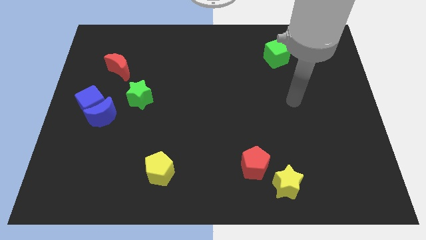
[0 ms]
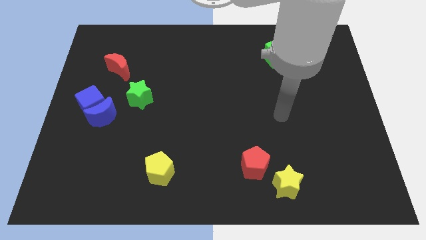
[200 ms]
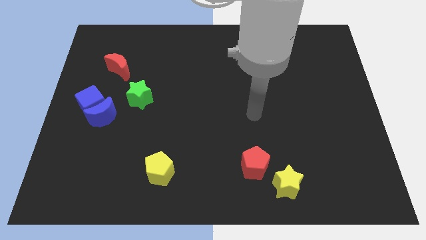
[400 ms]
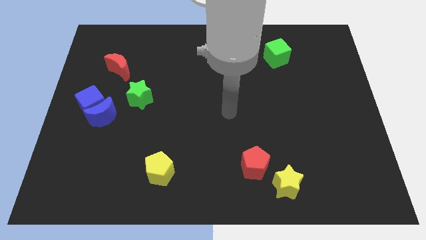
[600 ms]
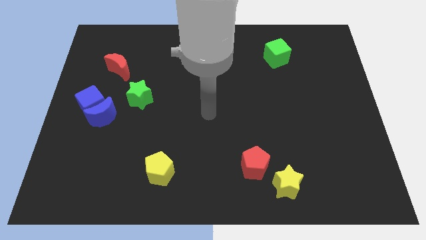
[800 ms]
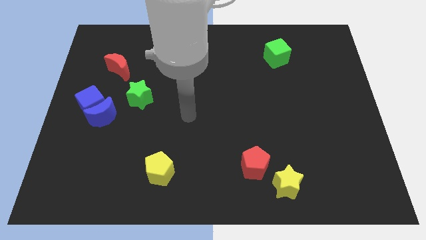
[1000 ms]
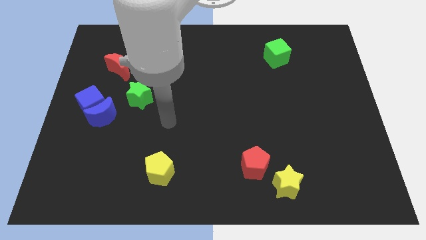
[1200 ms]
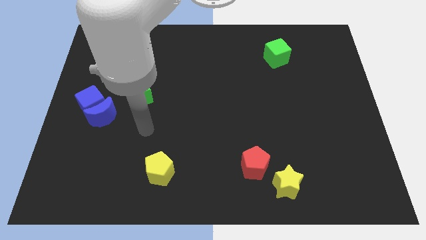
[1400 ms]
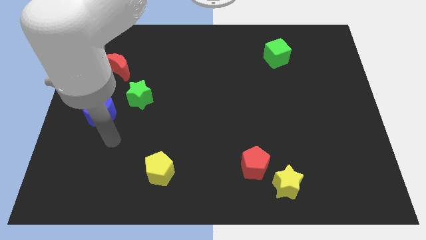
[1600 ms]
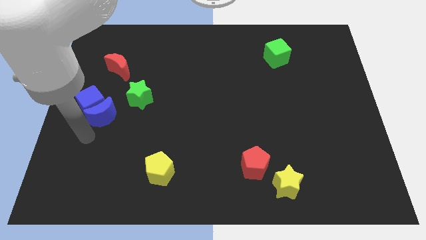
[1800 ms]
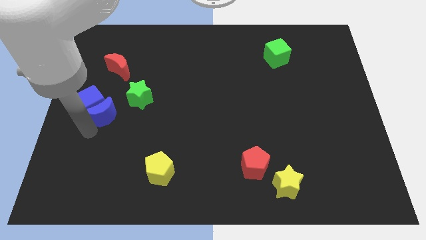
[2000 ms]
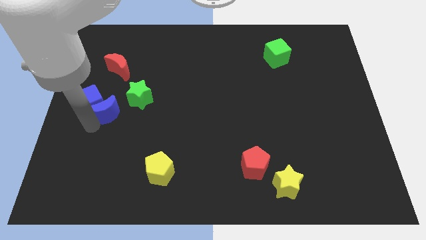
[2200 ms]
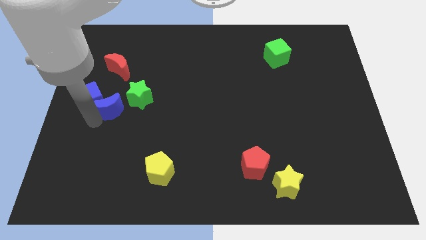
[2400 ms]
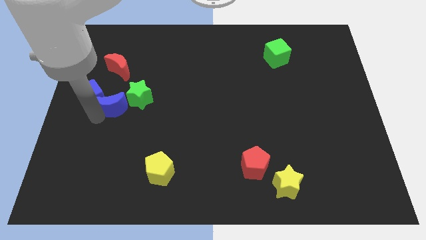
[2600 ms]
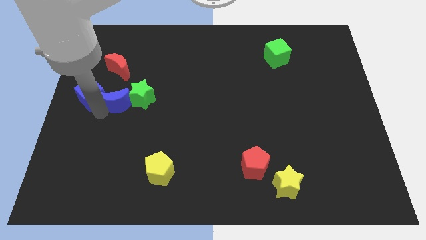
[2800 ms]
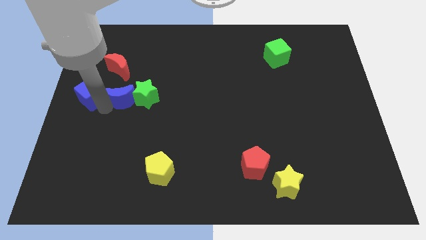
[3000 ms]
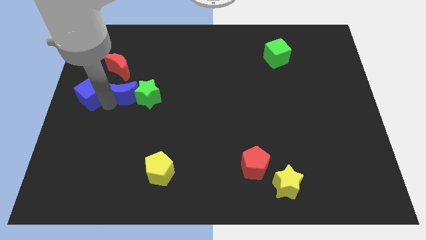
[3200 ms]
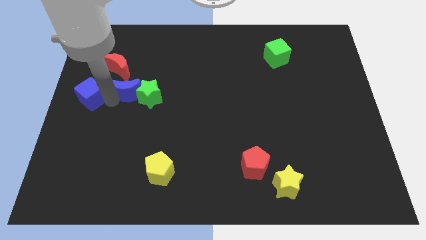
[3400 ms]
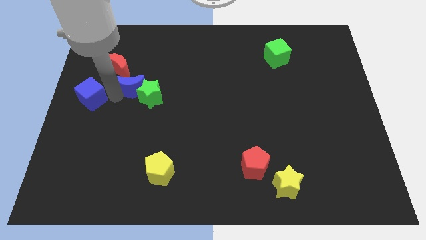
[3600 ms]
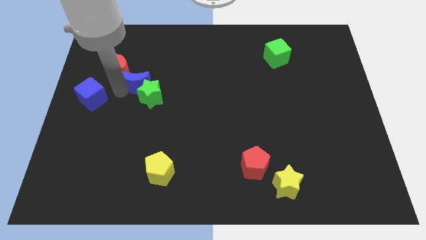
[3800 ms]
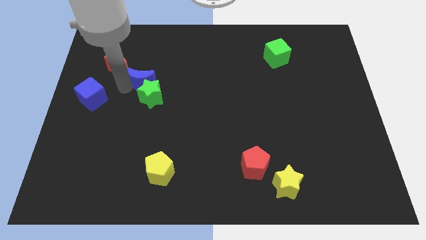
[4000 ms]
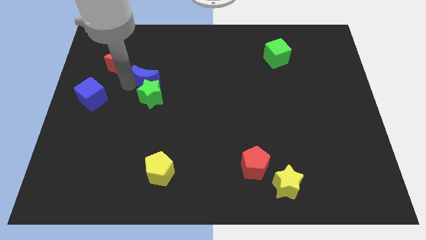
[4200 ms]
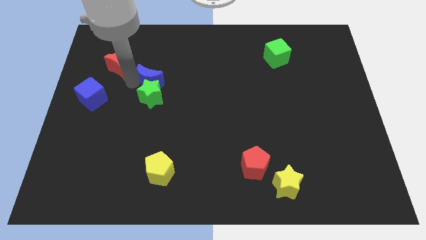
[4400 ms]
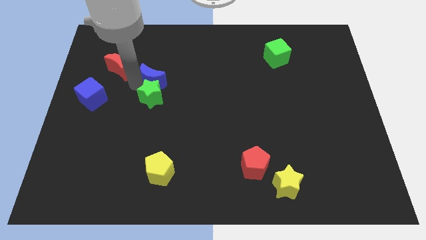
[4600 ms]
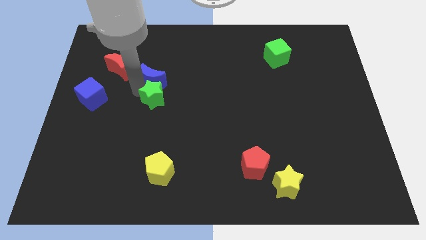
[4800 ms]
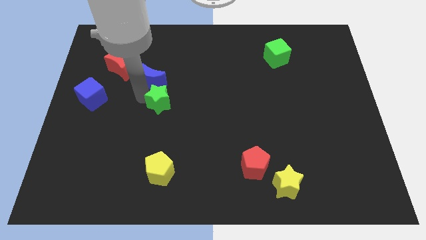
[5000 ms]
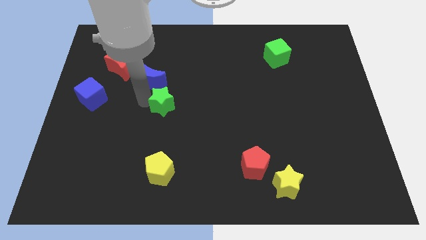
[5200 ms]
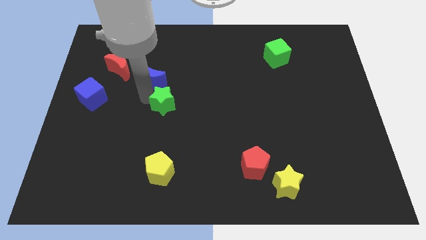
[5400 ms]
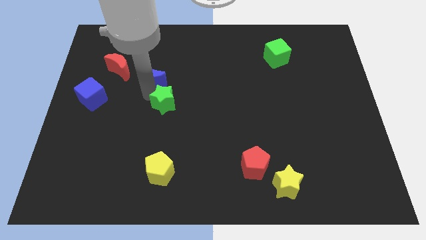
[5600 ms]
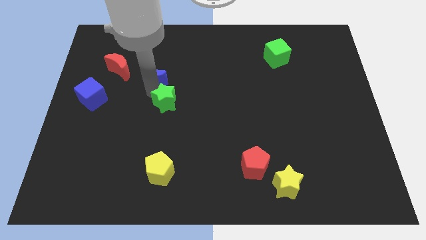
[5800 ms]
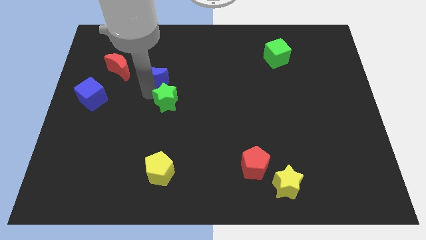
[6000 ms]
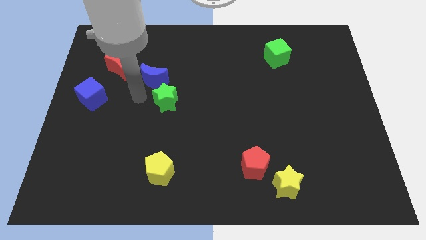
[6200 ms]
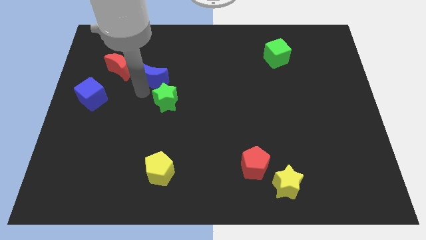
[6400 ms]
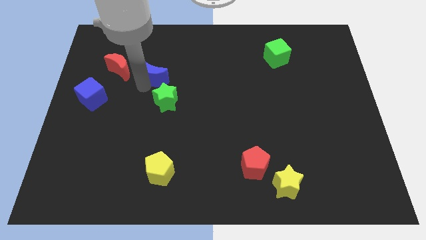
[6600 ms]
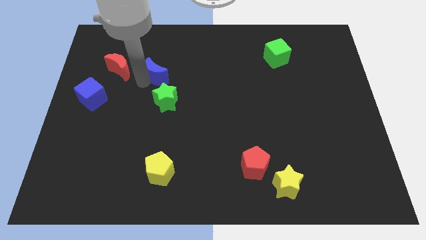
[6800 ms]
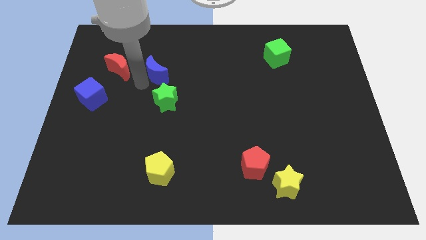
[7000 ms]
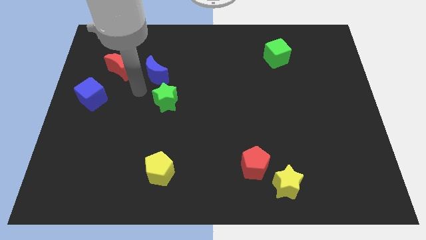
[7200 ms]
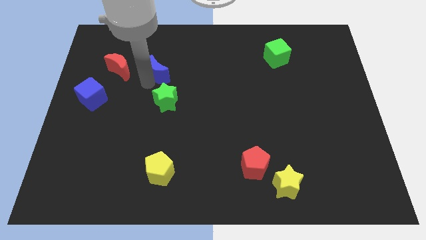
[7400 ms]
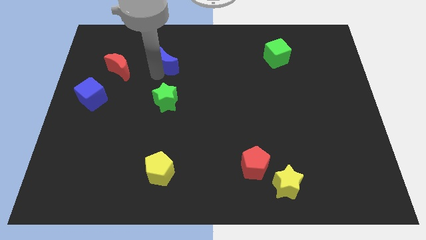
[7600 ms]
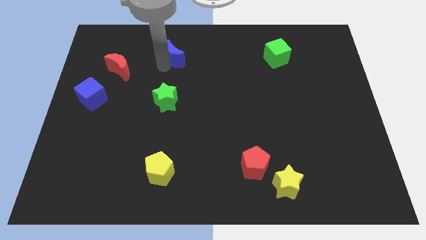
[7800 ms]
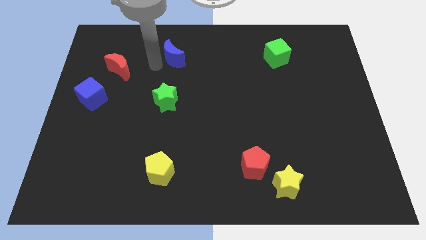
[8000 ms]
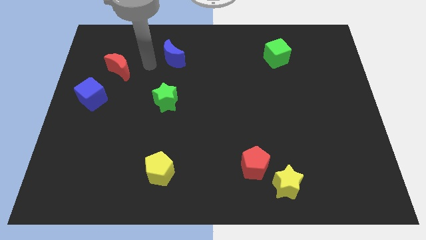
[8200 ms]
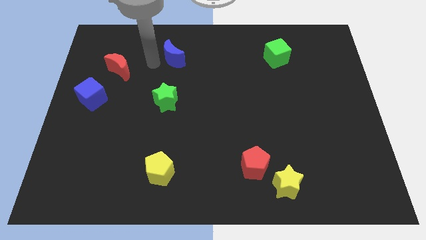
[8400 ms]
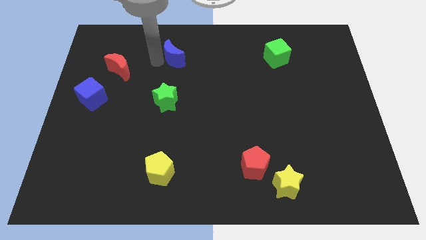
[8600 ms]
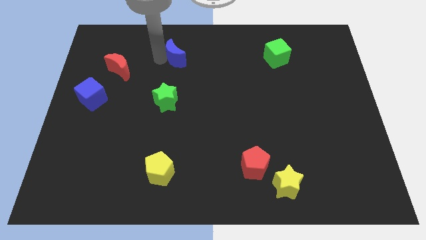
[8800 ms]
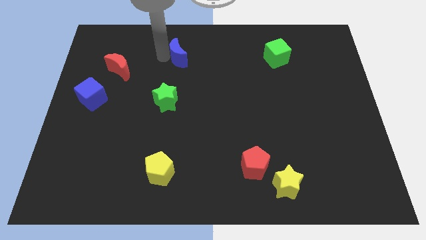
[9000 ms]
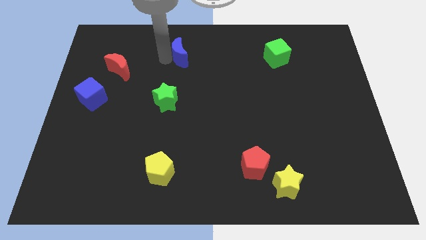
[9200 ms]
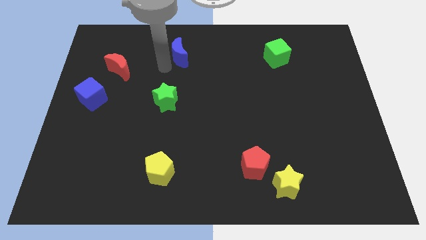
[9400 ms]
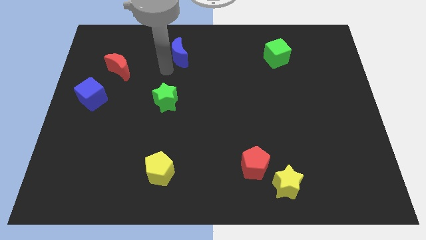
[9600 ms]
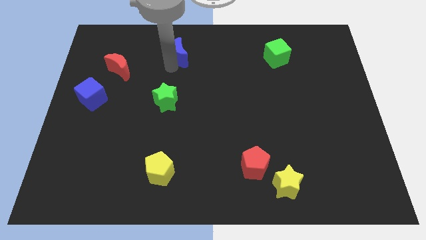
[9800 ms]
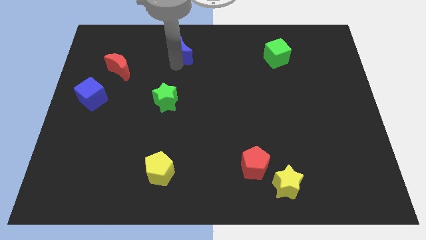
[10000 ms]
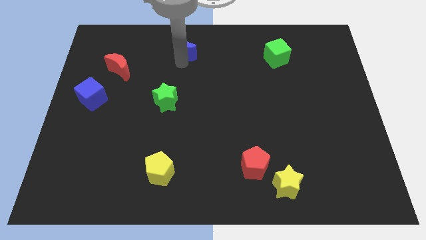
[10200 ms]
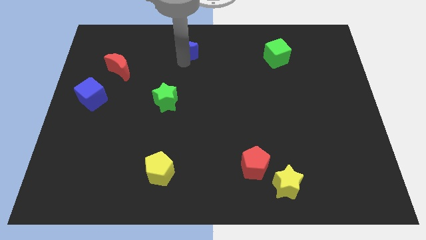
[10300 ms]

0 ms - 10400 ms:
move the blue moon to the top

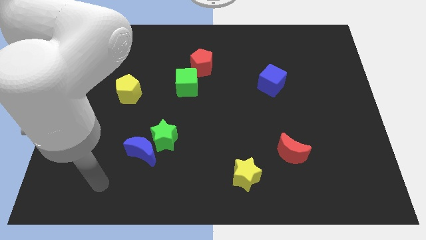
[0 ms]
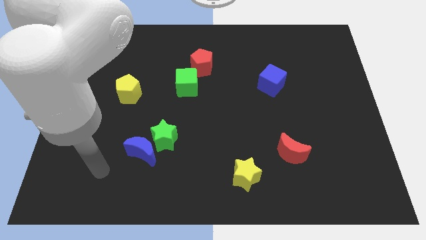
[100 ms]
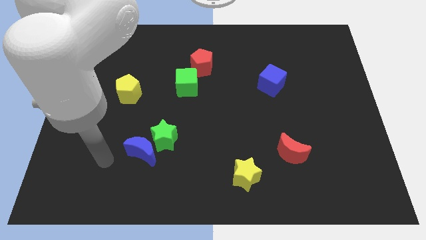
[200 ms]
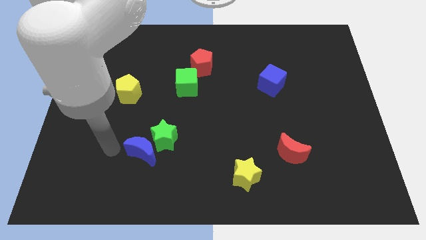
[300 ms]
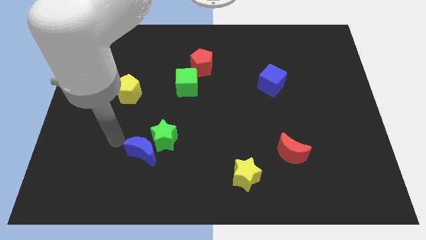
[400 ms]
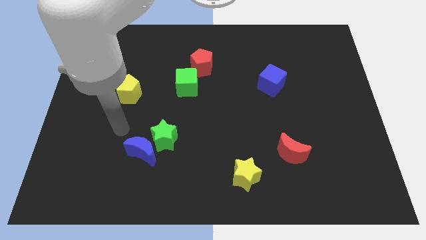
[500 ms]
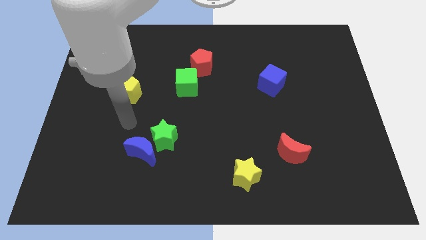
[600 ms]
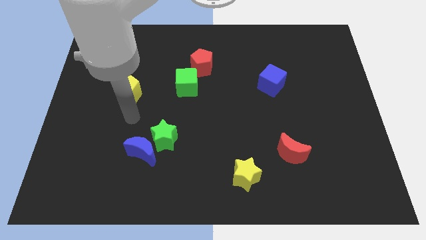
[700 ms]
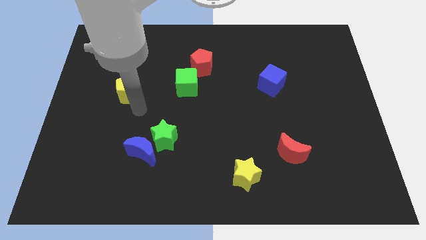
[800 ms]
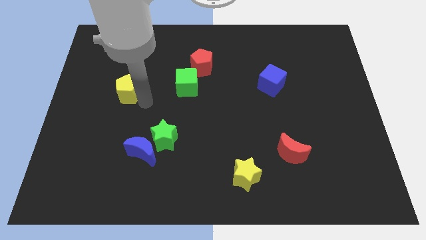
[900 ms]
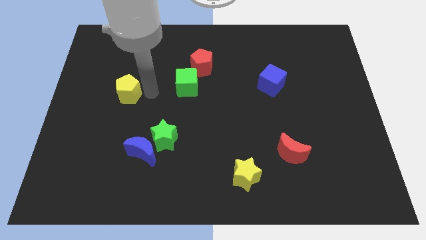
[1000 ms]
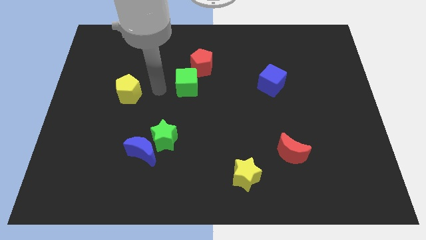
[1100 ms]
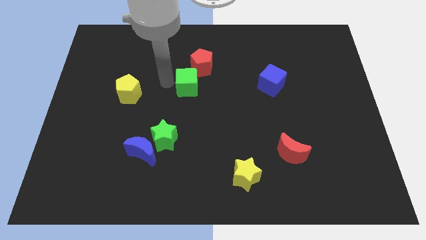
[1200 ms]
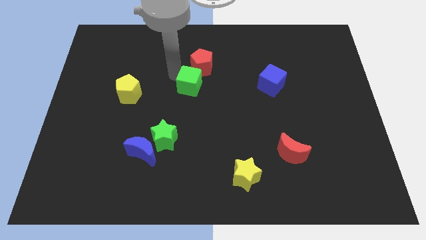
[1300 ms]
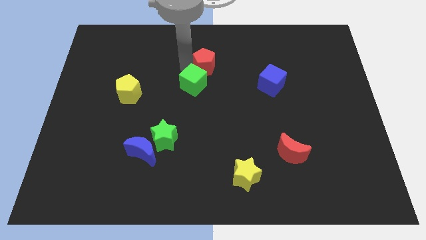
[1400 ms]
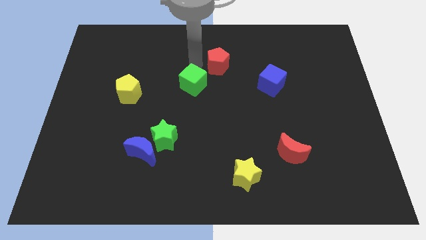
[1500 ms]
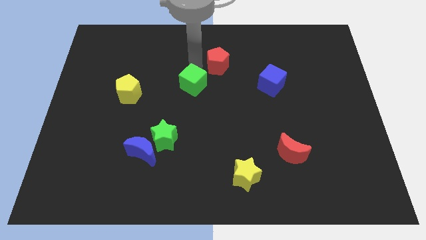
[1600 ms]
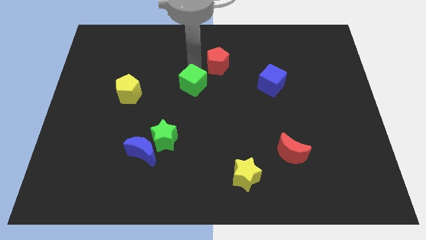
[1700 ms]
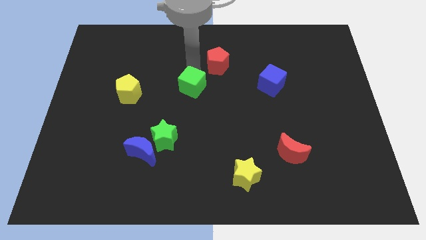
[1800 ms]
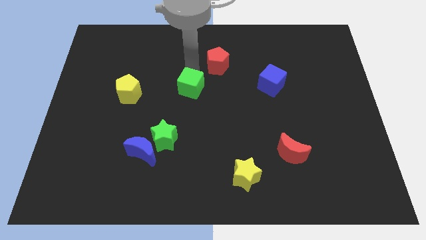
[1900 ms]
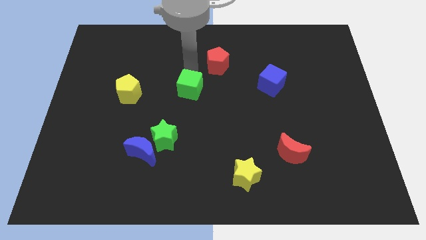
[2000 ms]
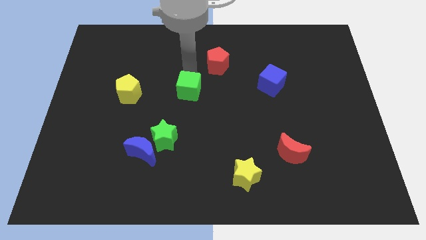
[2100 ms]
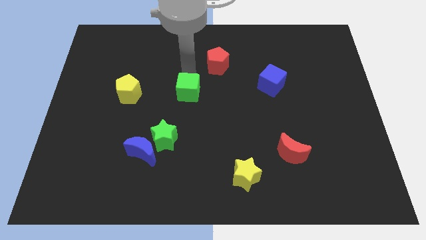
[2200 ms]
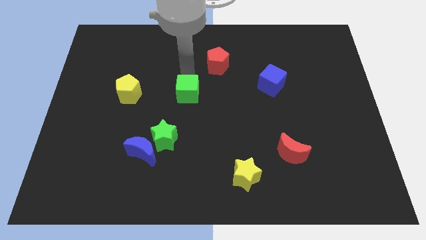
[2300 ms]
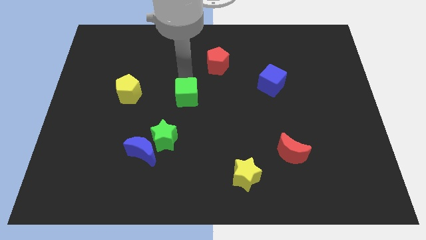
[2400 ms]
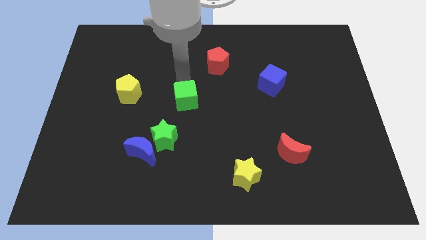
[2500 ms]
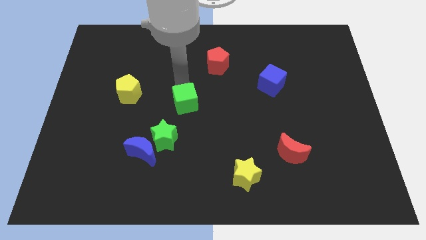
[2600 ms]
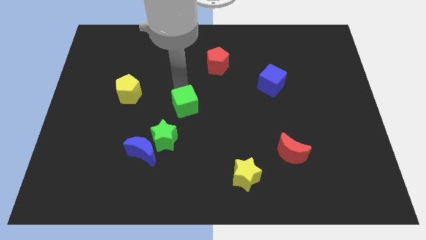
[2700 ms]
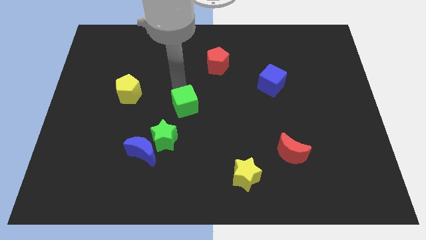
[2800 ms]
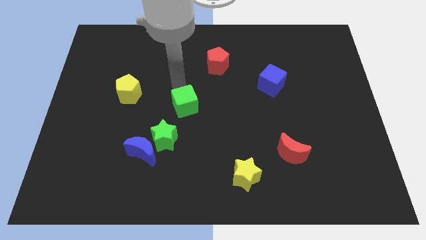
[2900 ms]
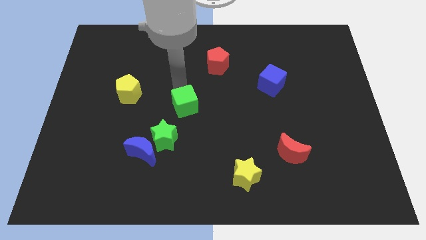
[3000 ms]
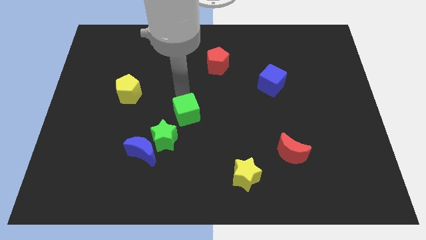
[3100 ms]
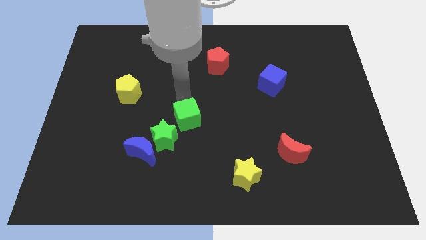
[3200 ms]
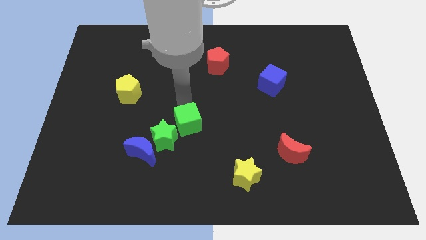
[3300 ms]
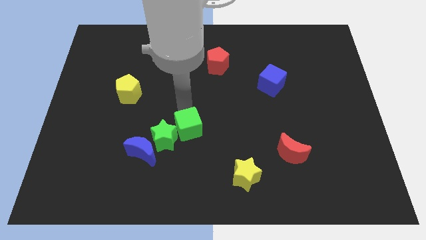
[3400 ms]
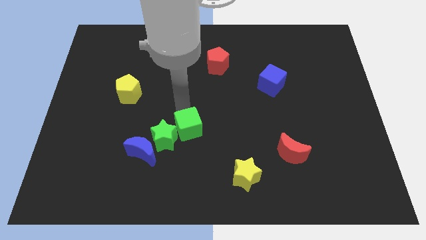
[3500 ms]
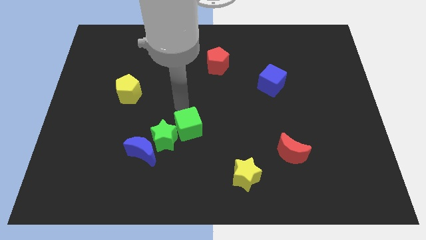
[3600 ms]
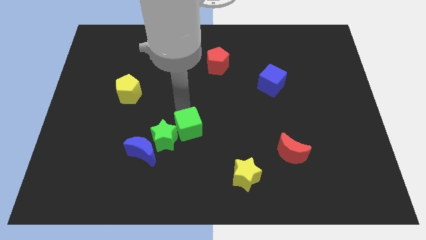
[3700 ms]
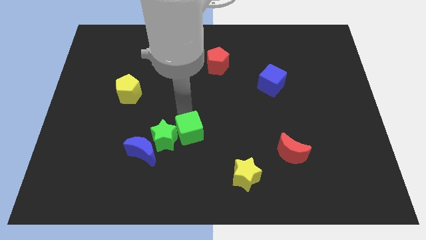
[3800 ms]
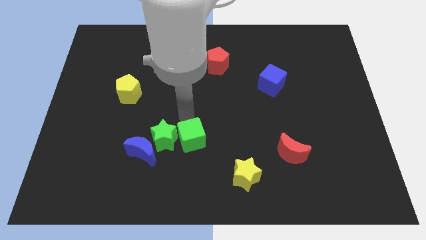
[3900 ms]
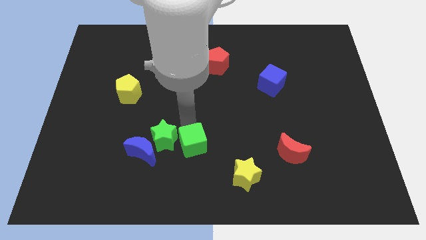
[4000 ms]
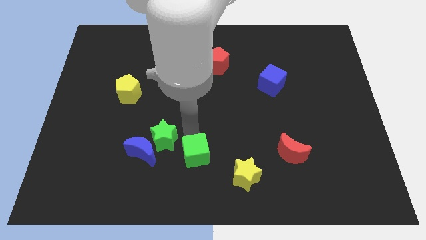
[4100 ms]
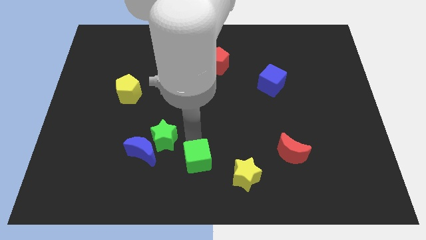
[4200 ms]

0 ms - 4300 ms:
slide the green cube to the bottom side
